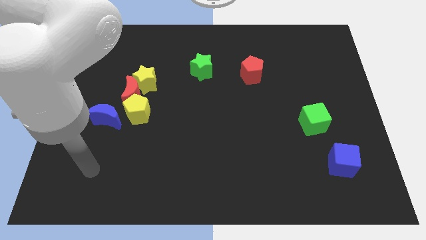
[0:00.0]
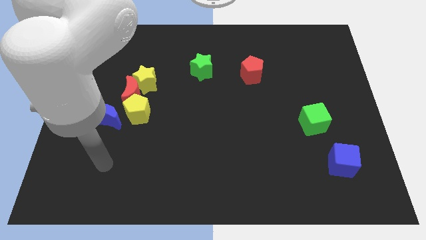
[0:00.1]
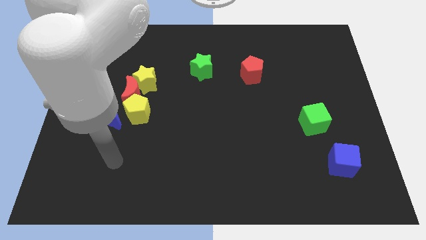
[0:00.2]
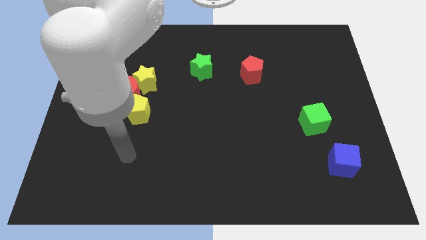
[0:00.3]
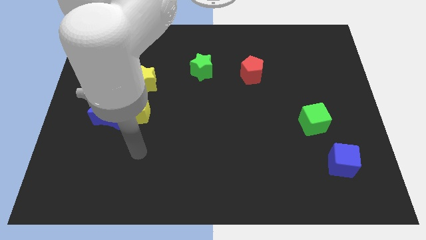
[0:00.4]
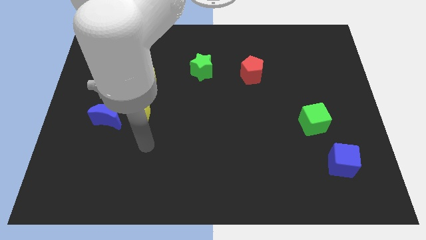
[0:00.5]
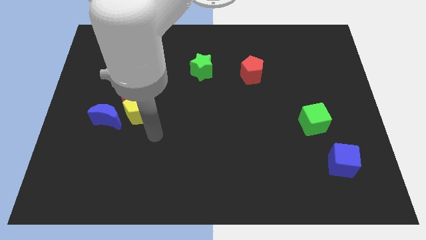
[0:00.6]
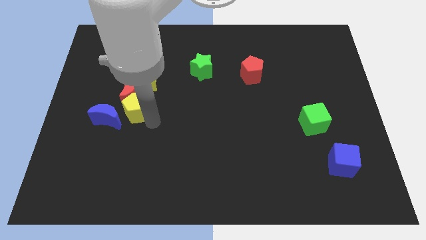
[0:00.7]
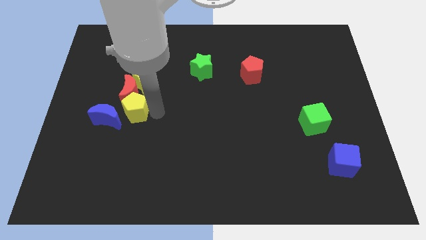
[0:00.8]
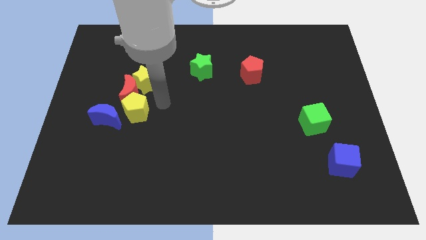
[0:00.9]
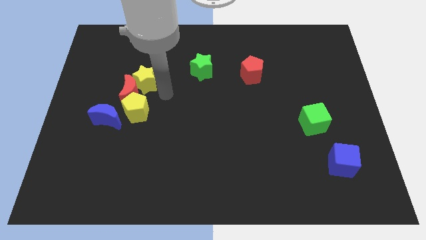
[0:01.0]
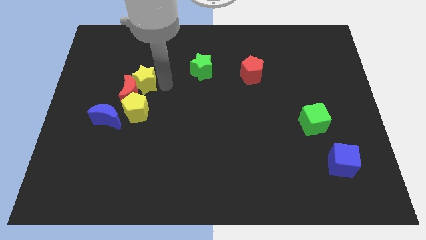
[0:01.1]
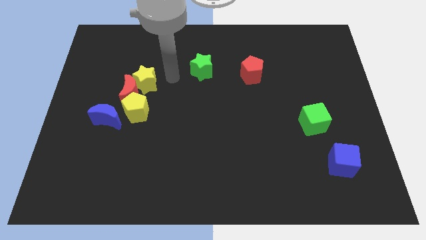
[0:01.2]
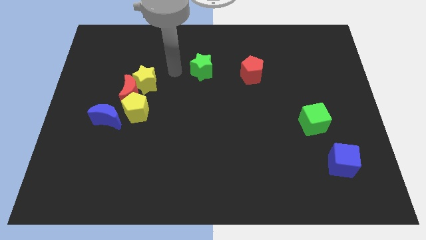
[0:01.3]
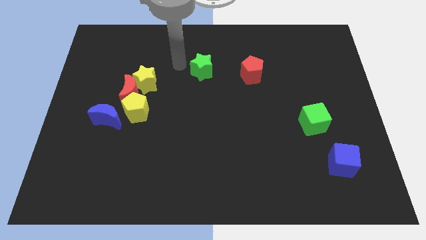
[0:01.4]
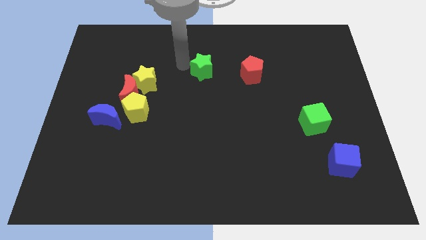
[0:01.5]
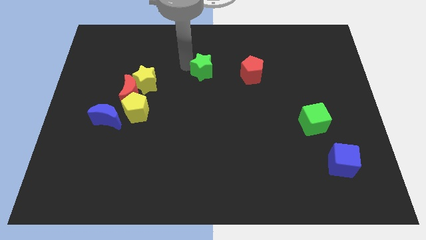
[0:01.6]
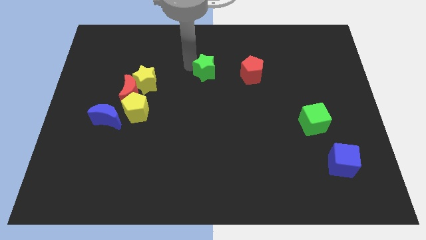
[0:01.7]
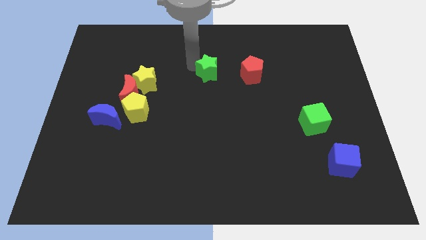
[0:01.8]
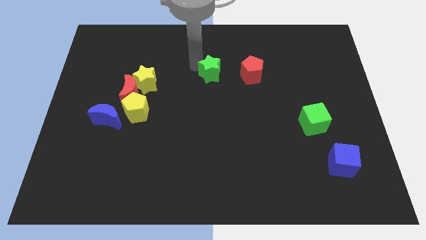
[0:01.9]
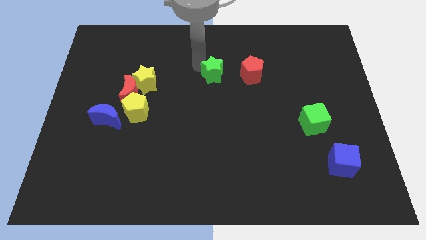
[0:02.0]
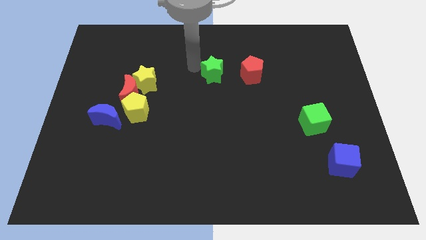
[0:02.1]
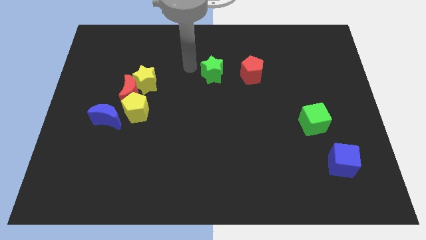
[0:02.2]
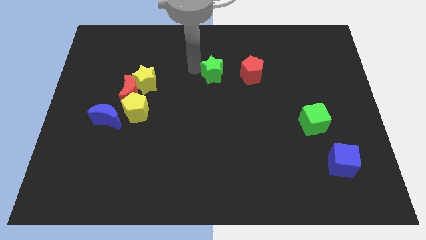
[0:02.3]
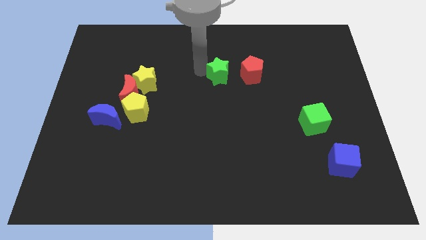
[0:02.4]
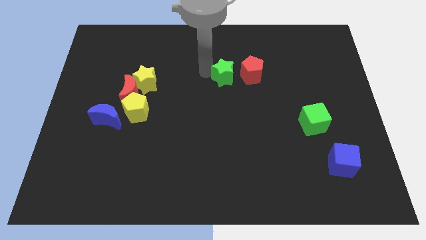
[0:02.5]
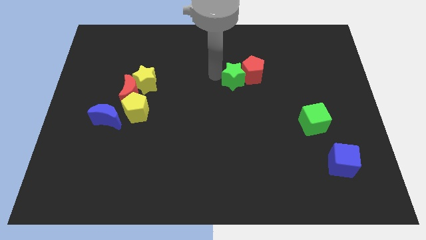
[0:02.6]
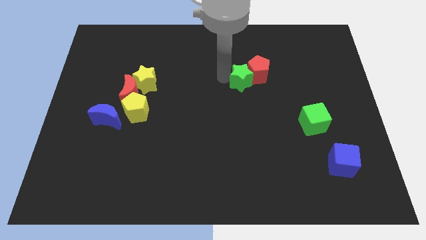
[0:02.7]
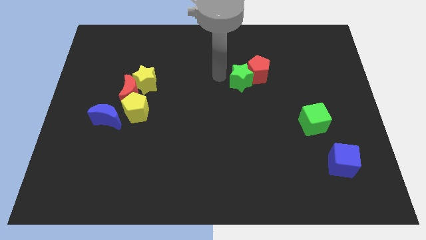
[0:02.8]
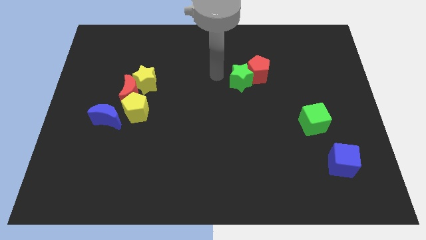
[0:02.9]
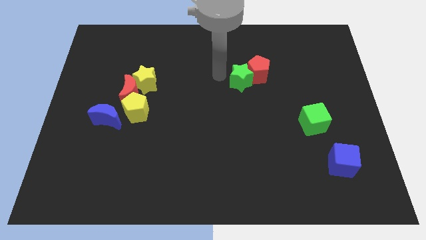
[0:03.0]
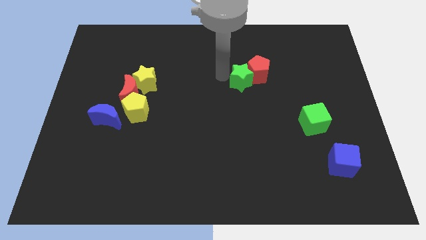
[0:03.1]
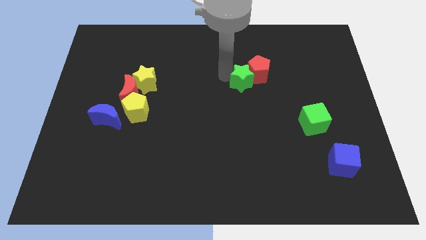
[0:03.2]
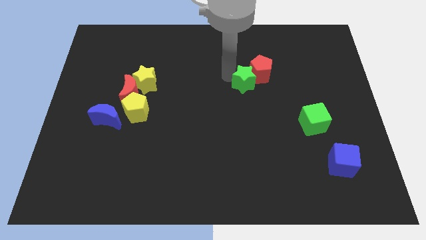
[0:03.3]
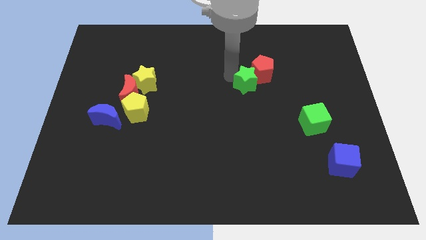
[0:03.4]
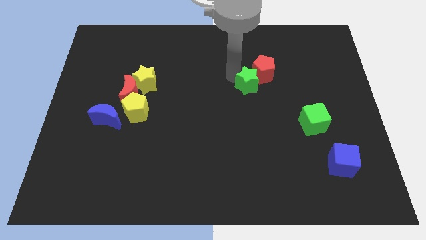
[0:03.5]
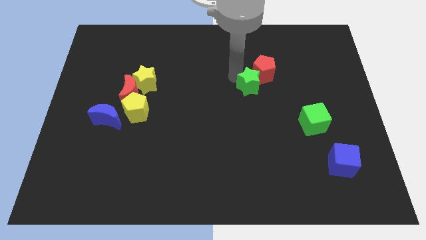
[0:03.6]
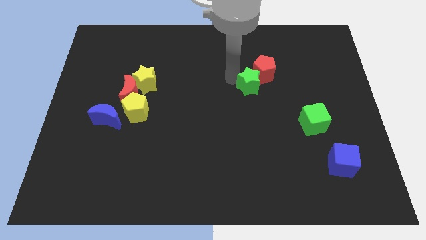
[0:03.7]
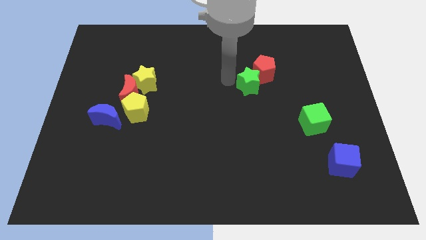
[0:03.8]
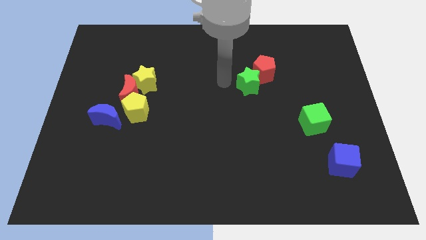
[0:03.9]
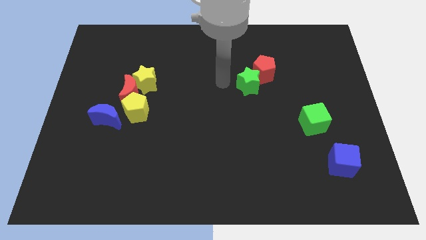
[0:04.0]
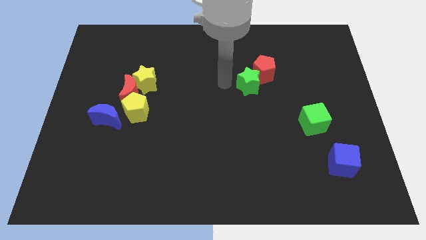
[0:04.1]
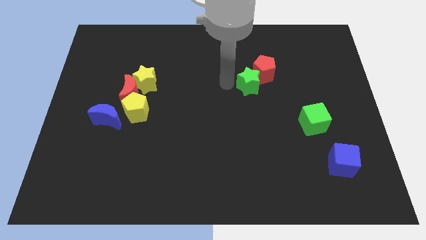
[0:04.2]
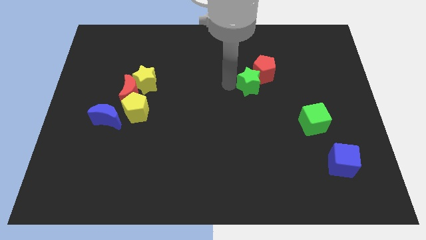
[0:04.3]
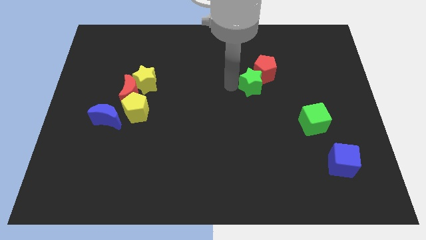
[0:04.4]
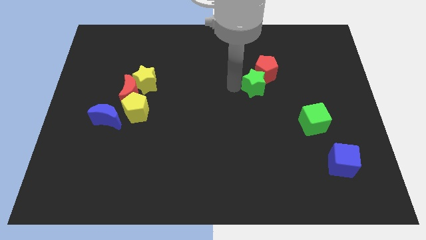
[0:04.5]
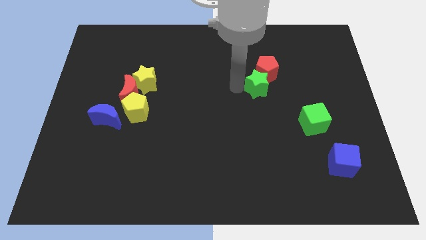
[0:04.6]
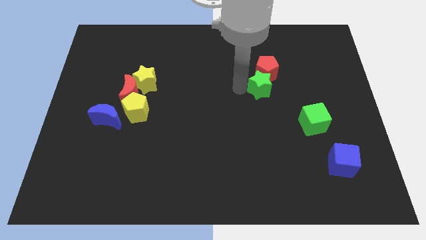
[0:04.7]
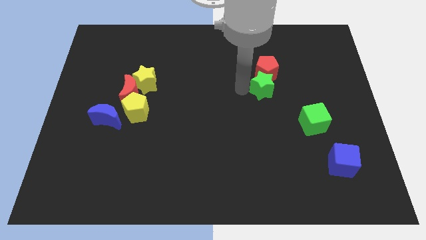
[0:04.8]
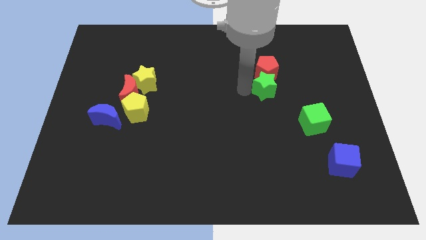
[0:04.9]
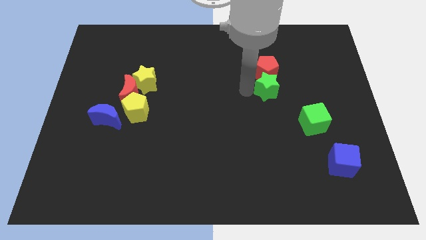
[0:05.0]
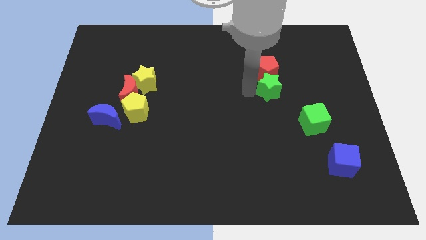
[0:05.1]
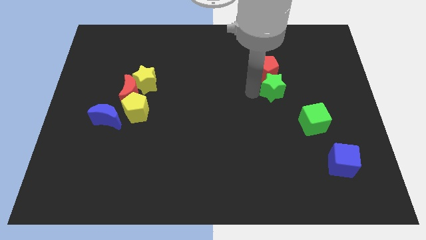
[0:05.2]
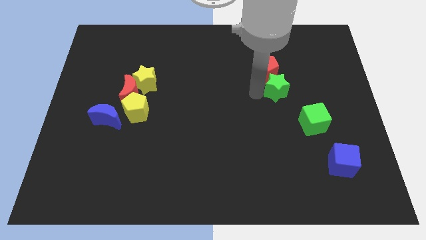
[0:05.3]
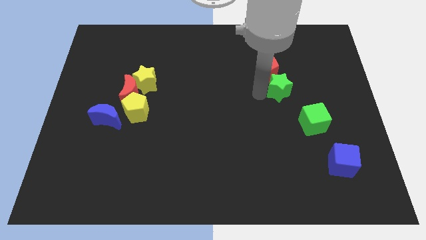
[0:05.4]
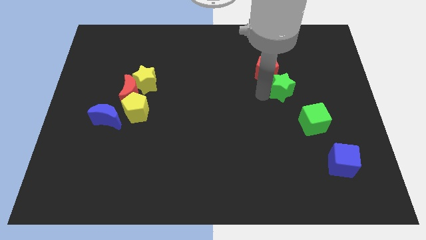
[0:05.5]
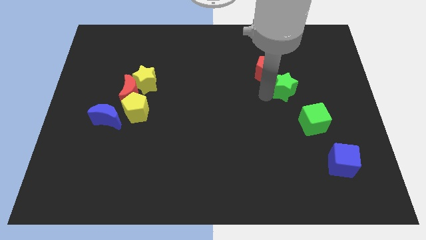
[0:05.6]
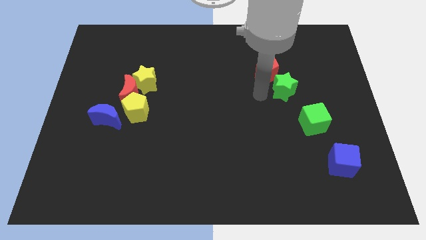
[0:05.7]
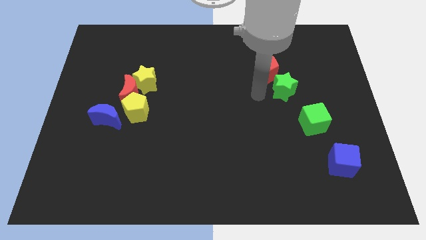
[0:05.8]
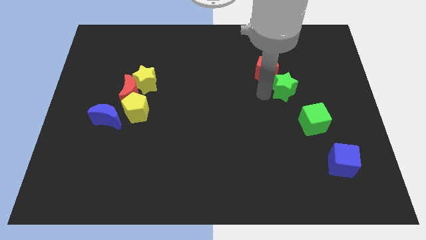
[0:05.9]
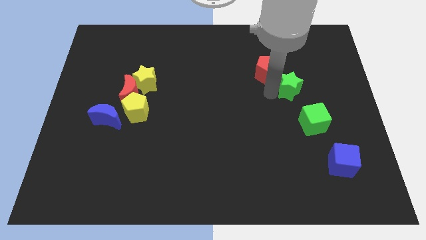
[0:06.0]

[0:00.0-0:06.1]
slide the green star to the top of the green cube

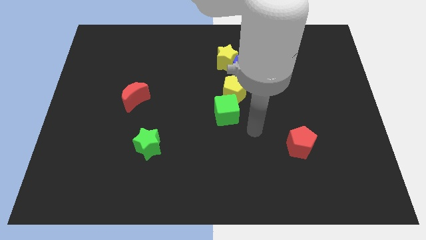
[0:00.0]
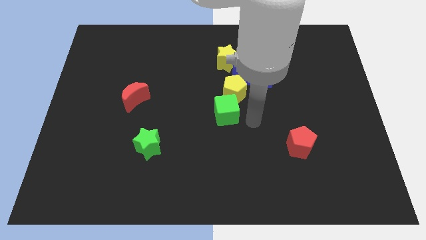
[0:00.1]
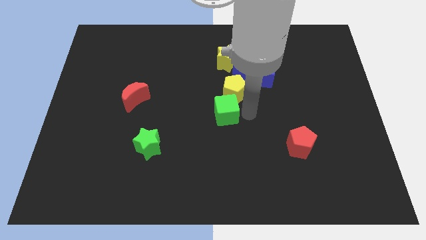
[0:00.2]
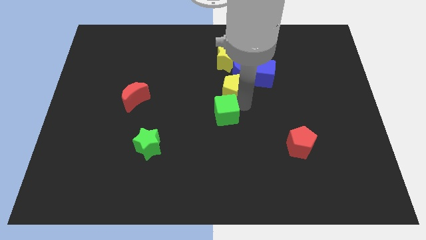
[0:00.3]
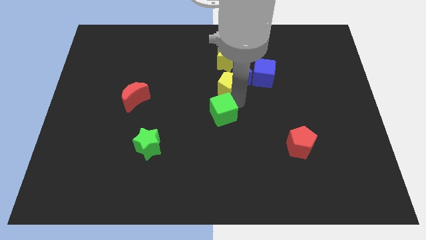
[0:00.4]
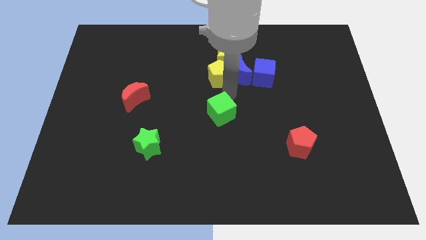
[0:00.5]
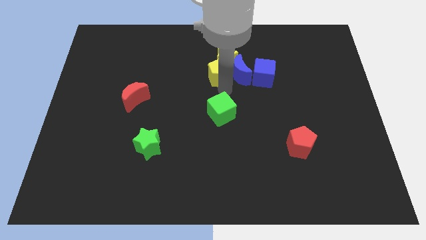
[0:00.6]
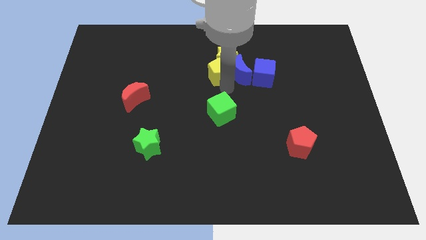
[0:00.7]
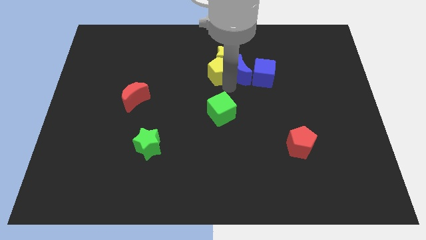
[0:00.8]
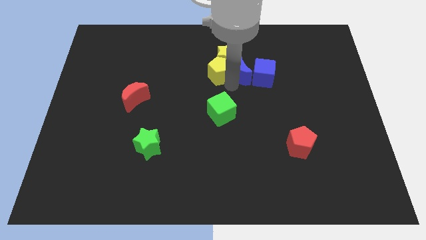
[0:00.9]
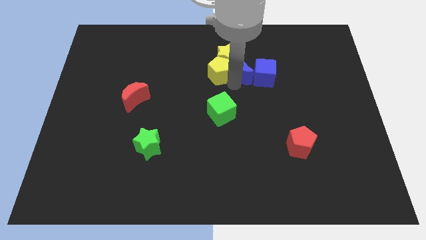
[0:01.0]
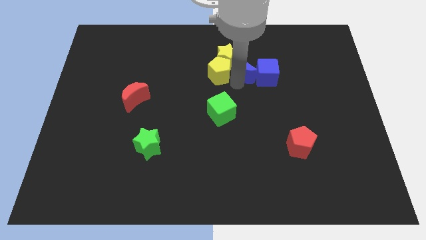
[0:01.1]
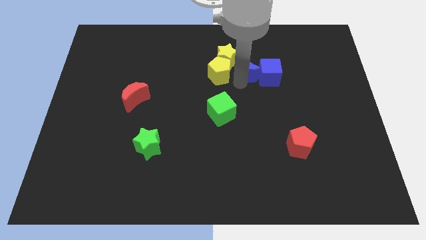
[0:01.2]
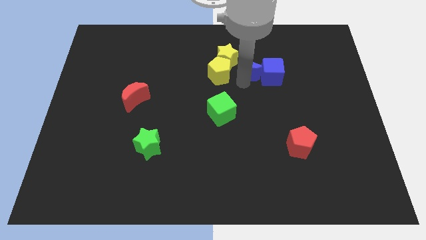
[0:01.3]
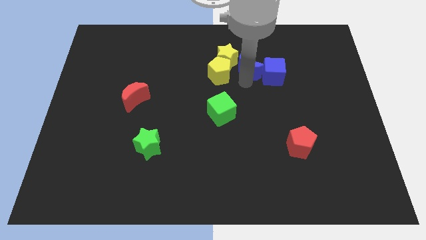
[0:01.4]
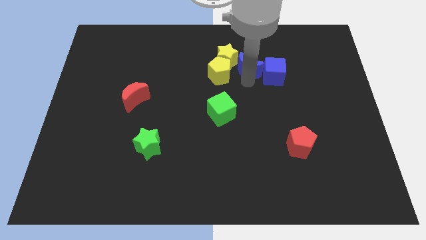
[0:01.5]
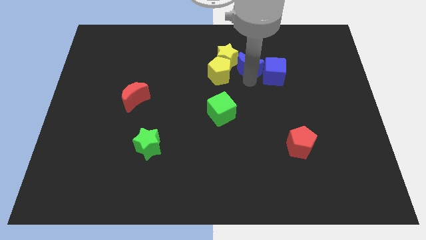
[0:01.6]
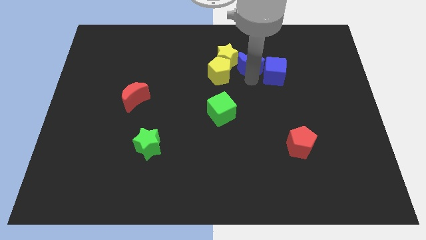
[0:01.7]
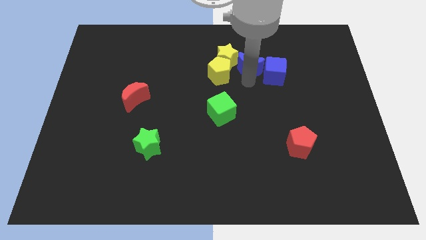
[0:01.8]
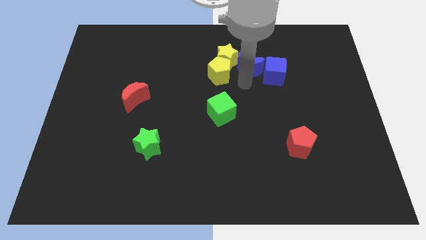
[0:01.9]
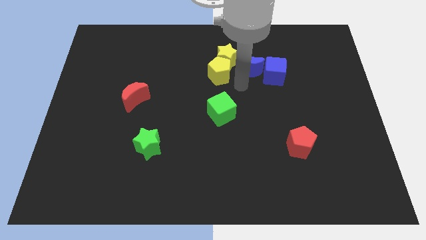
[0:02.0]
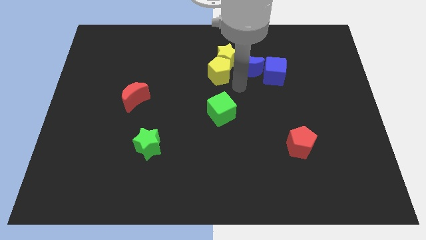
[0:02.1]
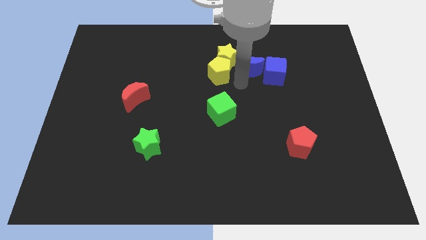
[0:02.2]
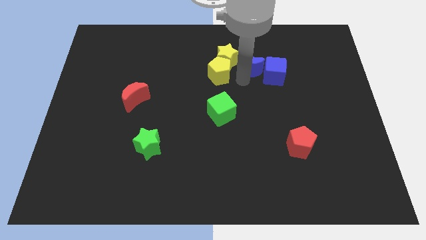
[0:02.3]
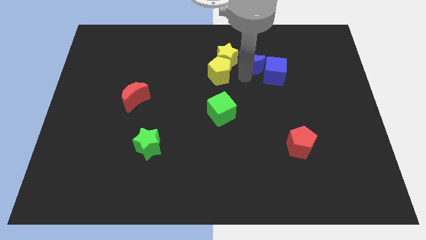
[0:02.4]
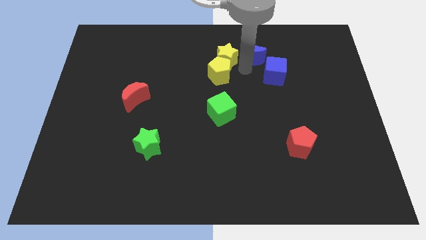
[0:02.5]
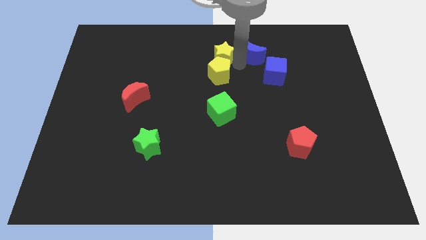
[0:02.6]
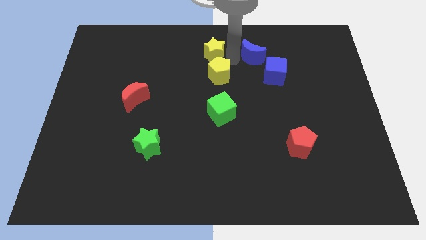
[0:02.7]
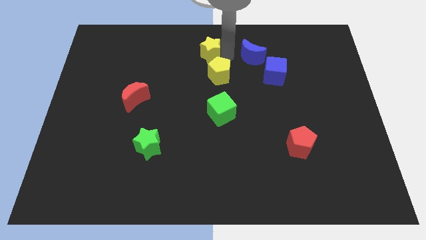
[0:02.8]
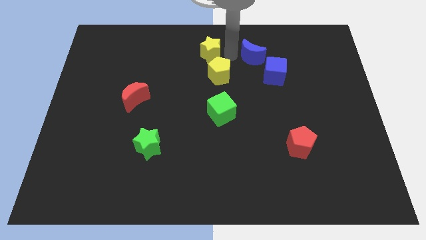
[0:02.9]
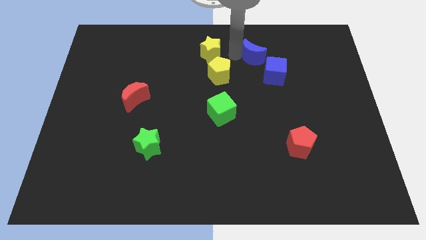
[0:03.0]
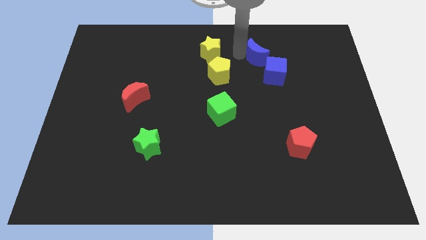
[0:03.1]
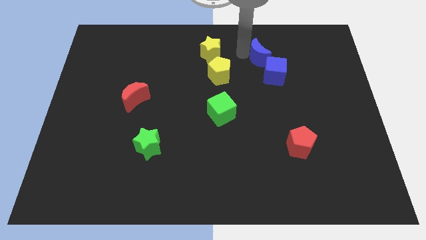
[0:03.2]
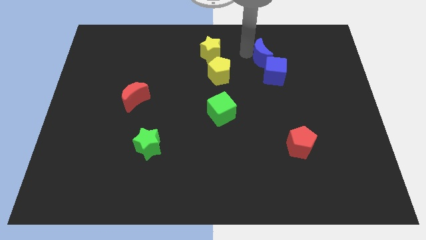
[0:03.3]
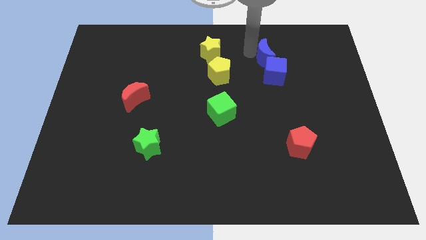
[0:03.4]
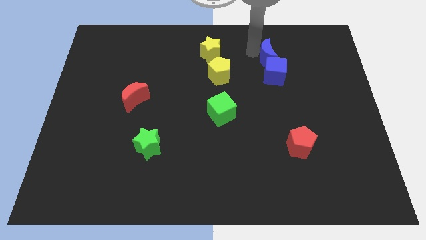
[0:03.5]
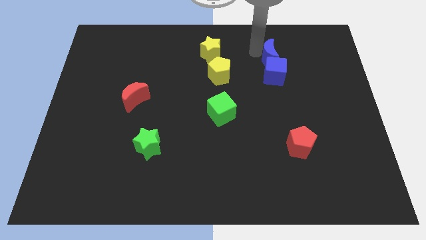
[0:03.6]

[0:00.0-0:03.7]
push the blue moon to the top right side of the blue cube
